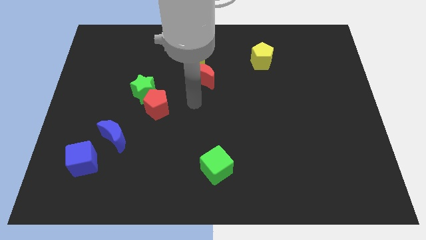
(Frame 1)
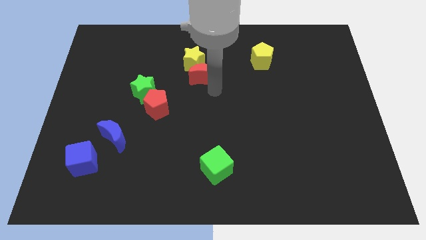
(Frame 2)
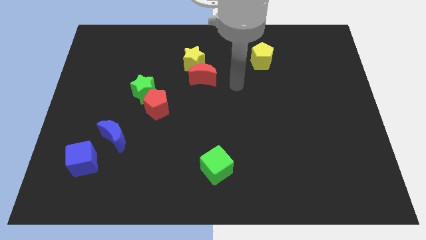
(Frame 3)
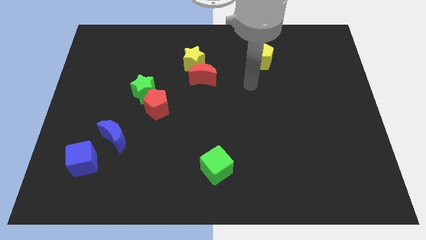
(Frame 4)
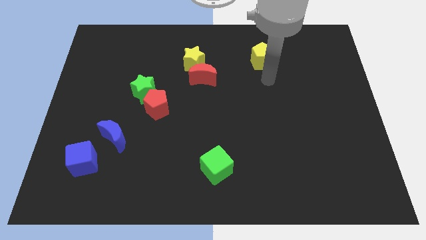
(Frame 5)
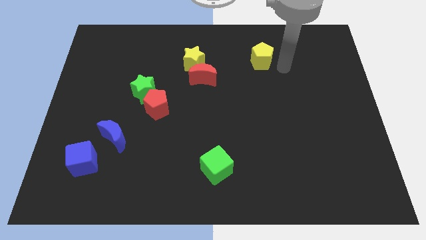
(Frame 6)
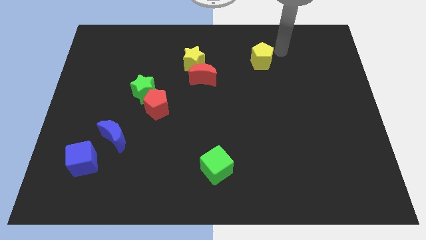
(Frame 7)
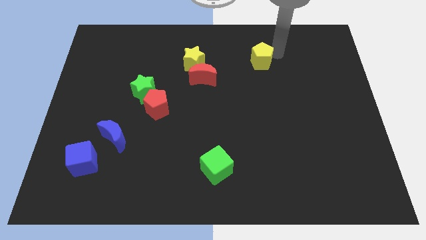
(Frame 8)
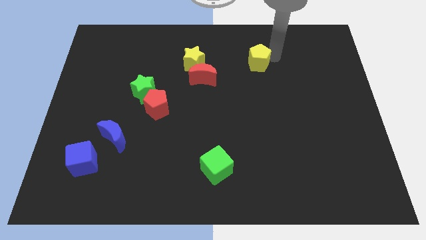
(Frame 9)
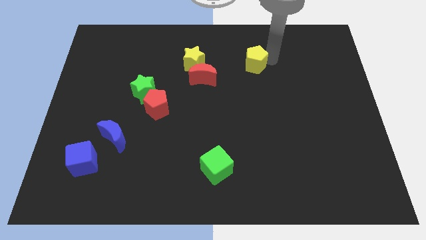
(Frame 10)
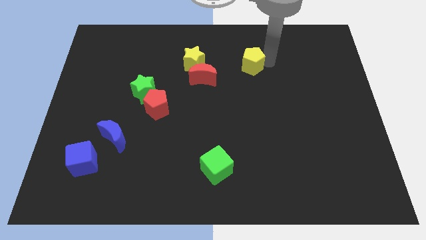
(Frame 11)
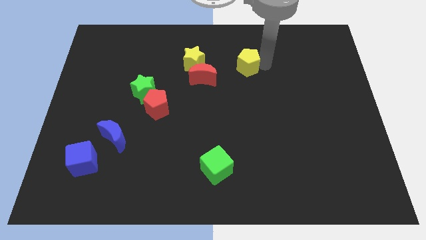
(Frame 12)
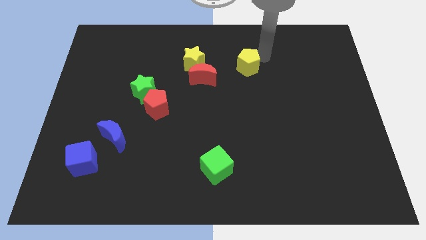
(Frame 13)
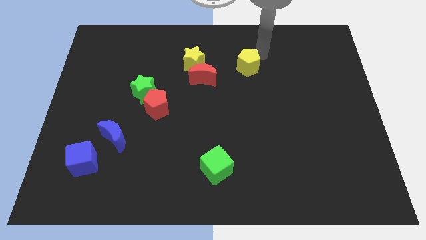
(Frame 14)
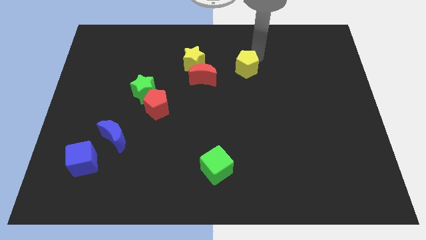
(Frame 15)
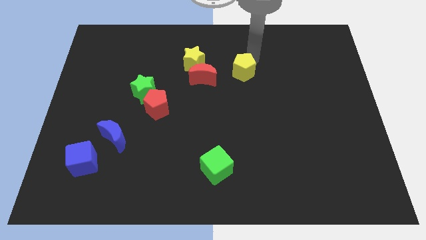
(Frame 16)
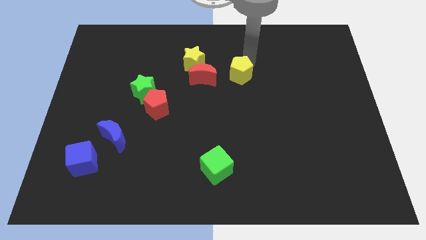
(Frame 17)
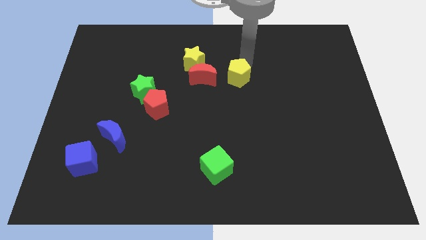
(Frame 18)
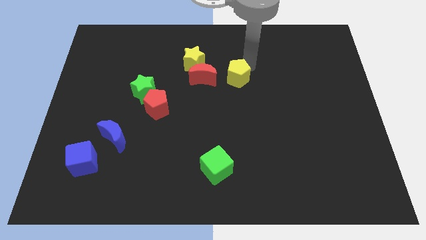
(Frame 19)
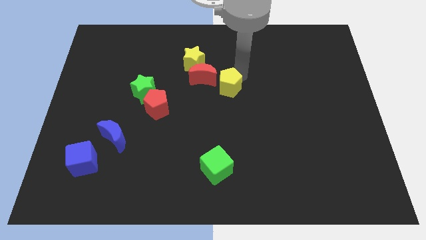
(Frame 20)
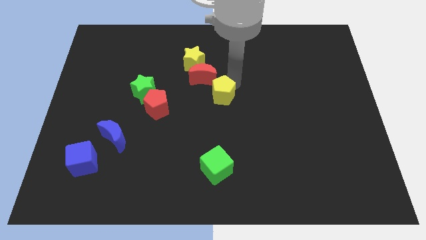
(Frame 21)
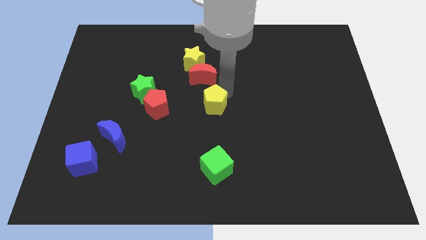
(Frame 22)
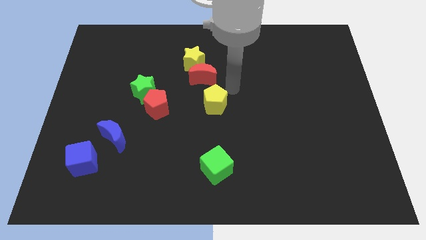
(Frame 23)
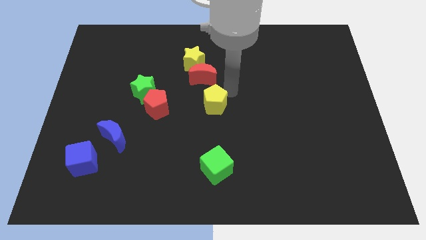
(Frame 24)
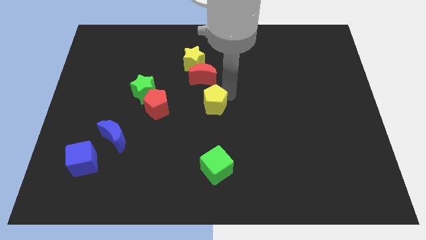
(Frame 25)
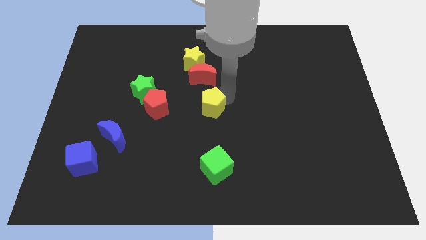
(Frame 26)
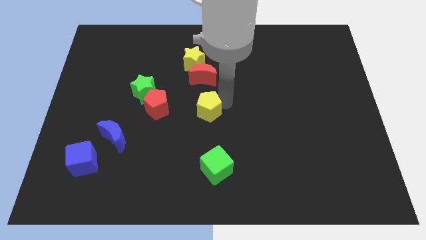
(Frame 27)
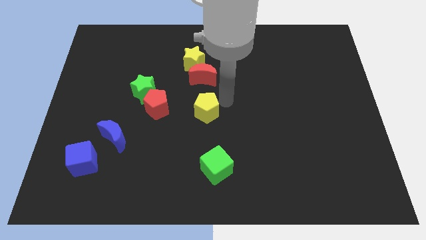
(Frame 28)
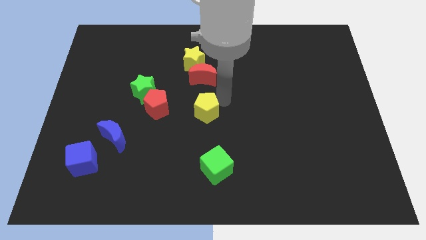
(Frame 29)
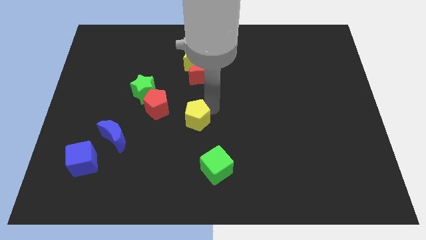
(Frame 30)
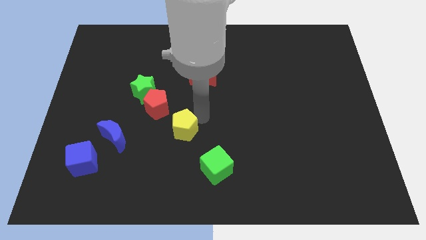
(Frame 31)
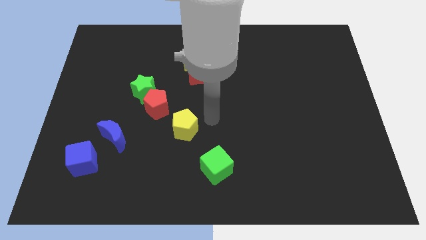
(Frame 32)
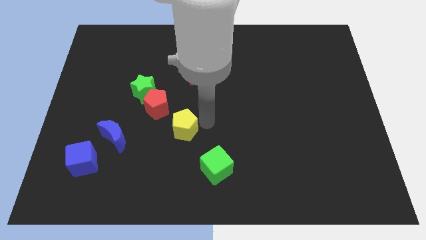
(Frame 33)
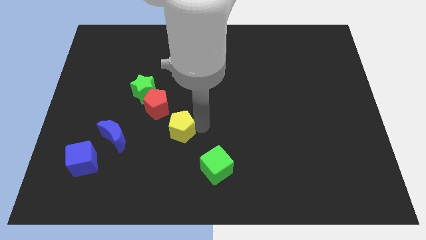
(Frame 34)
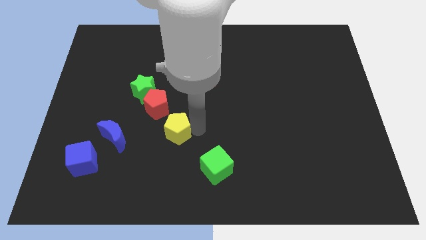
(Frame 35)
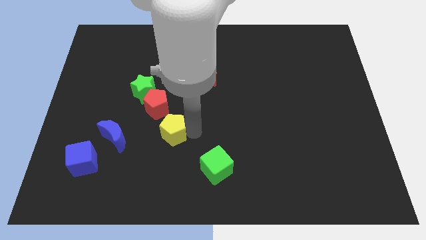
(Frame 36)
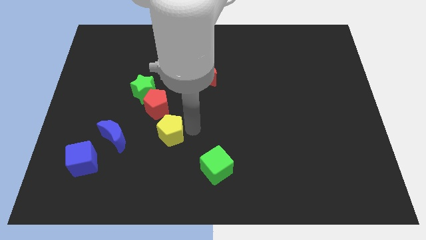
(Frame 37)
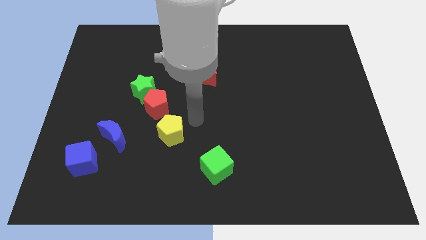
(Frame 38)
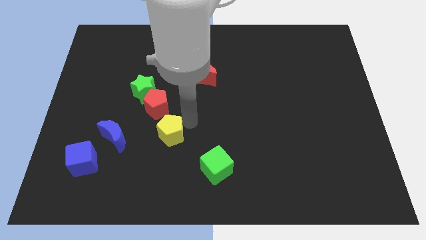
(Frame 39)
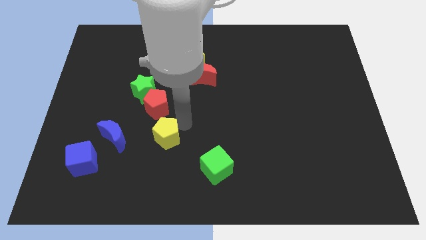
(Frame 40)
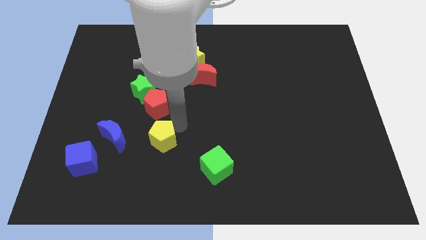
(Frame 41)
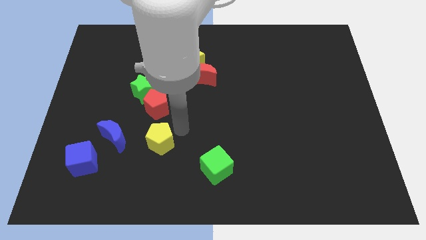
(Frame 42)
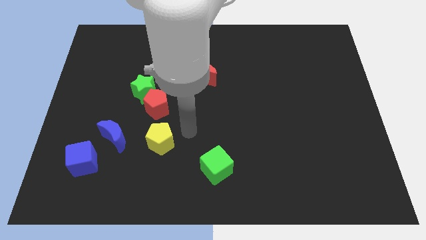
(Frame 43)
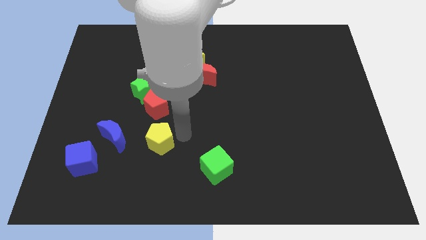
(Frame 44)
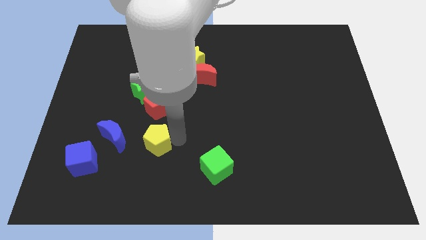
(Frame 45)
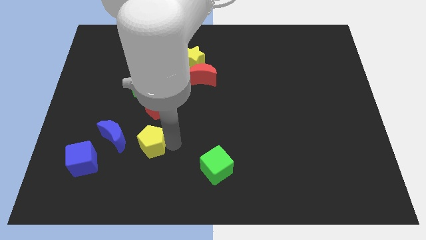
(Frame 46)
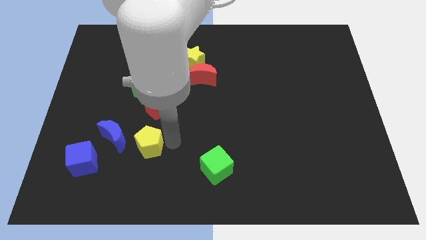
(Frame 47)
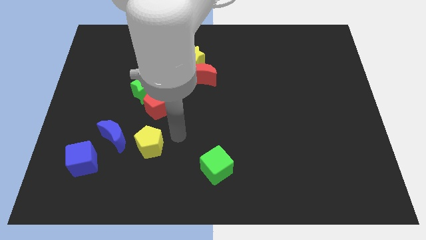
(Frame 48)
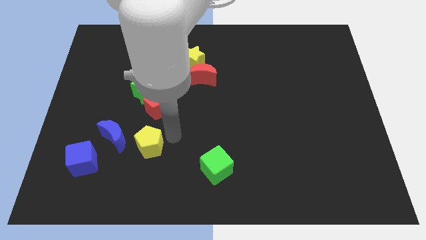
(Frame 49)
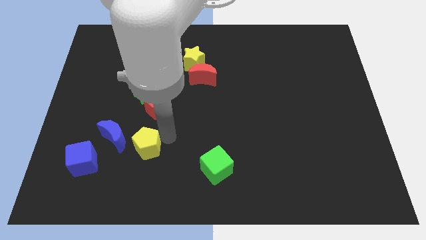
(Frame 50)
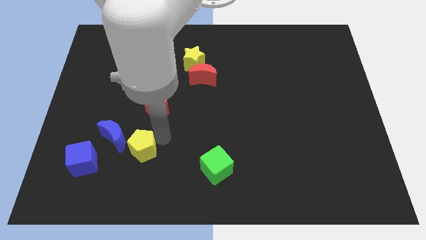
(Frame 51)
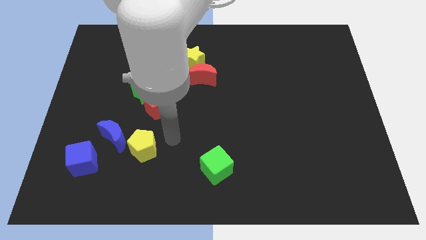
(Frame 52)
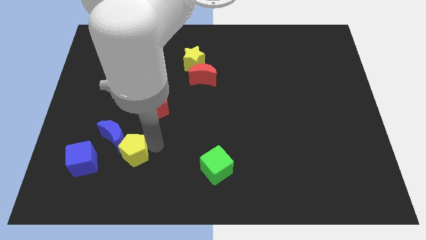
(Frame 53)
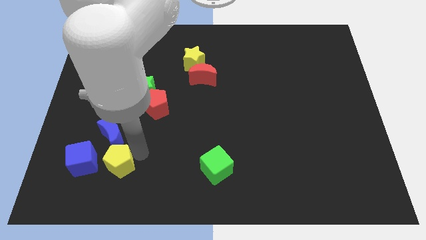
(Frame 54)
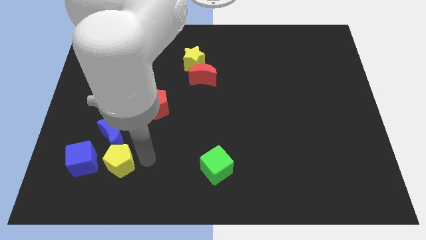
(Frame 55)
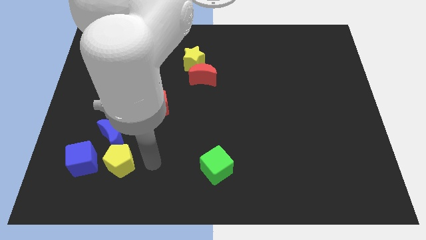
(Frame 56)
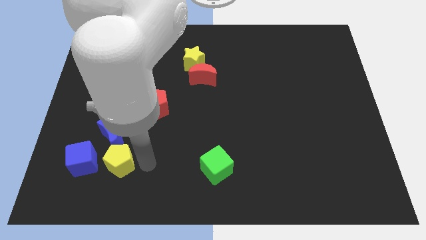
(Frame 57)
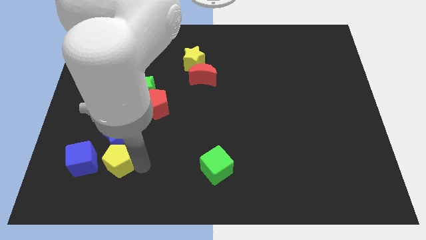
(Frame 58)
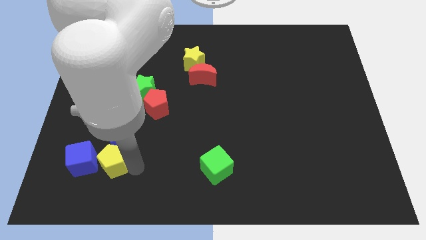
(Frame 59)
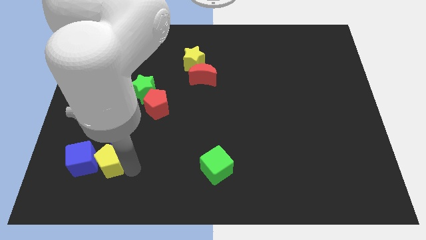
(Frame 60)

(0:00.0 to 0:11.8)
move the yellow pentagon next to the blue cube

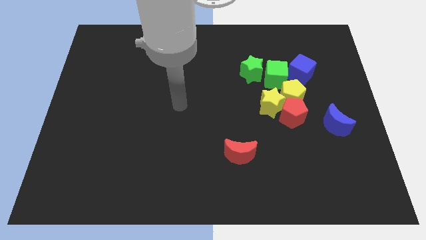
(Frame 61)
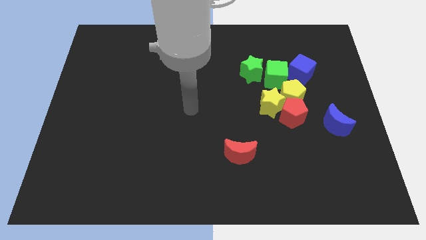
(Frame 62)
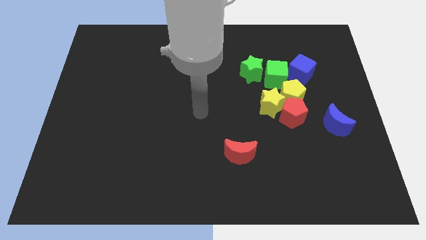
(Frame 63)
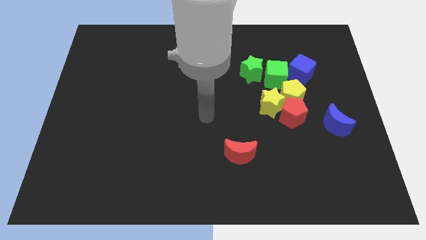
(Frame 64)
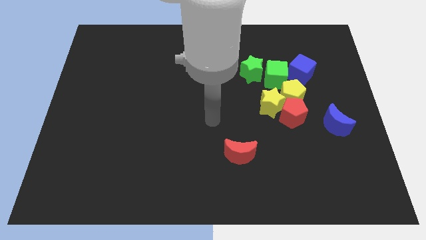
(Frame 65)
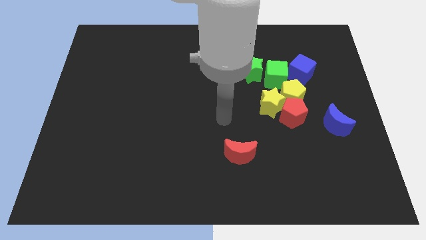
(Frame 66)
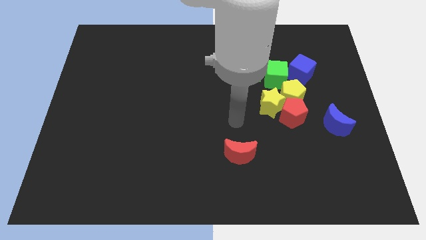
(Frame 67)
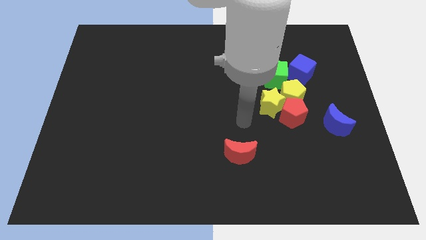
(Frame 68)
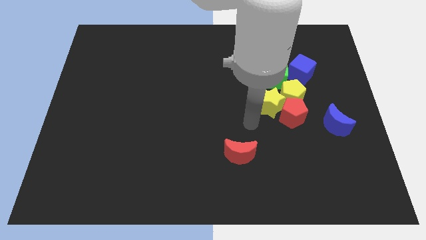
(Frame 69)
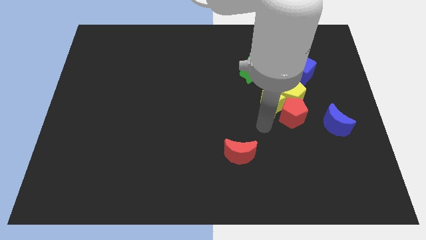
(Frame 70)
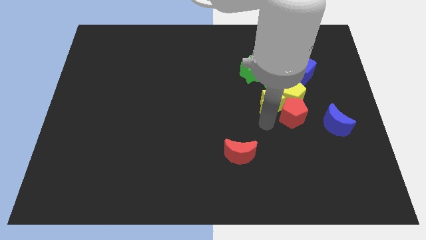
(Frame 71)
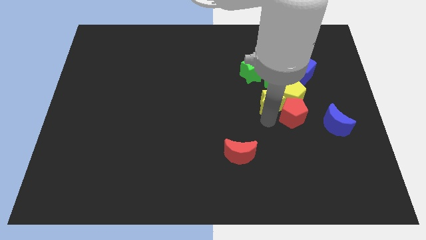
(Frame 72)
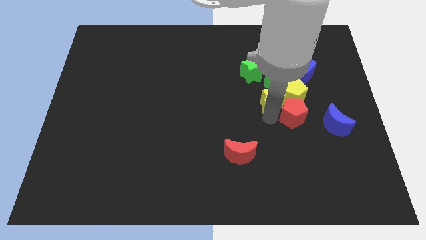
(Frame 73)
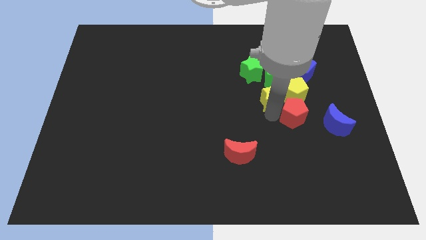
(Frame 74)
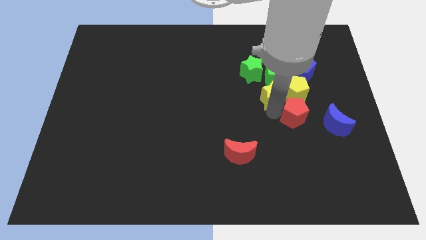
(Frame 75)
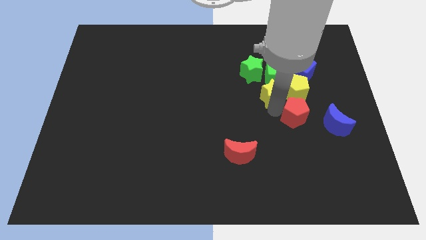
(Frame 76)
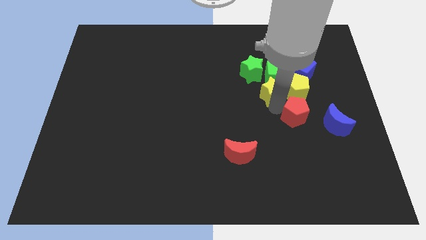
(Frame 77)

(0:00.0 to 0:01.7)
move the yellow star close to the green cube
